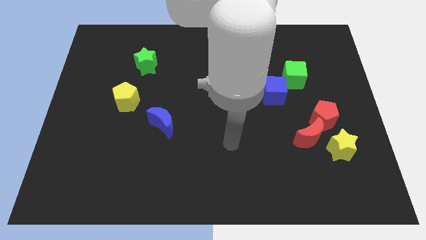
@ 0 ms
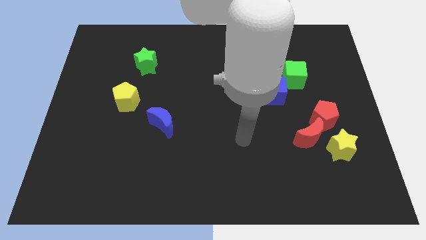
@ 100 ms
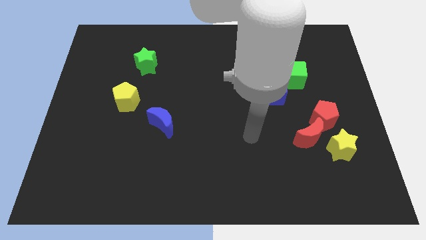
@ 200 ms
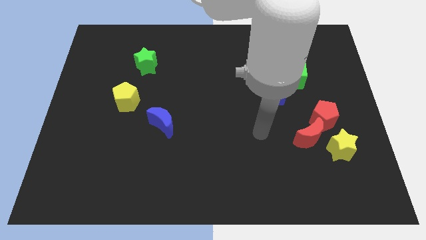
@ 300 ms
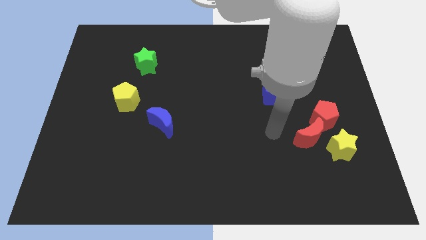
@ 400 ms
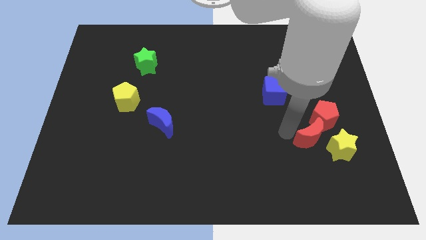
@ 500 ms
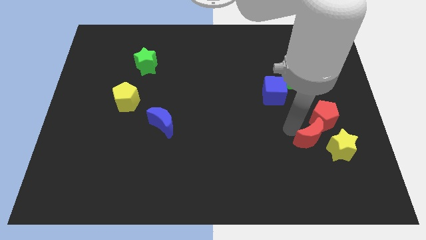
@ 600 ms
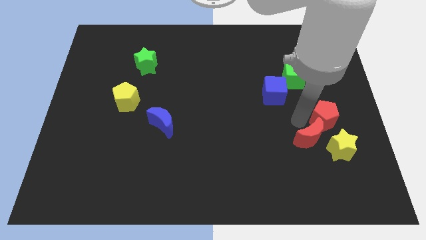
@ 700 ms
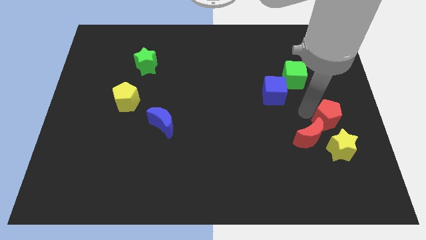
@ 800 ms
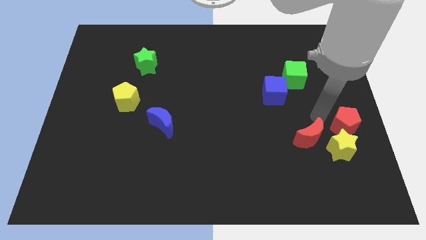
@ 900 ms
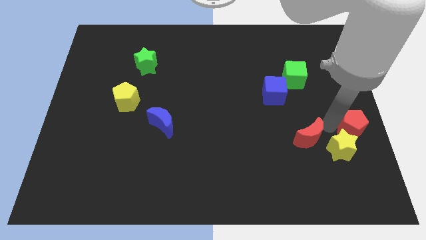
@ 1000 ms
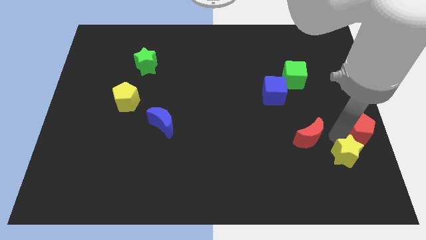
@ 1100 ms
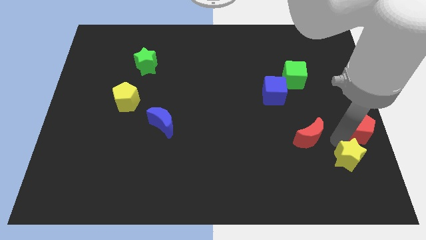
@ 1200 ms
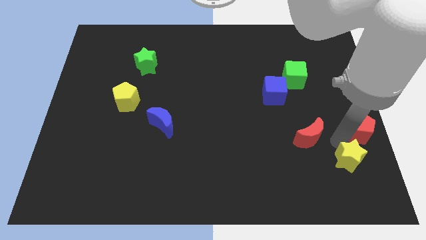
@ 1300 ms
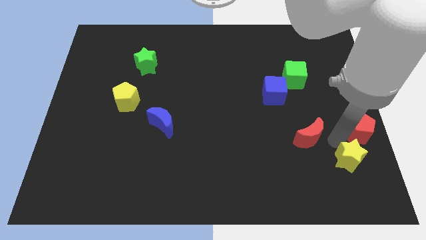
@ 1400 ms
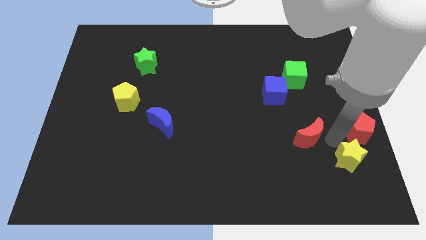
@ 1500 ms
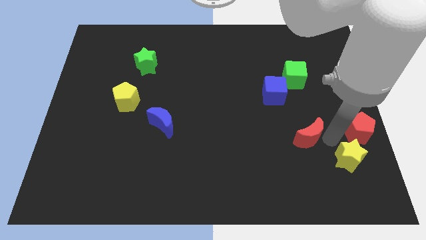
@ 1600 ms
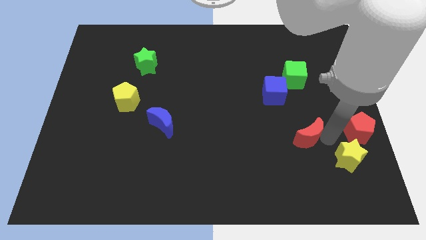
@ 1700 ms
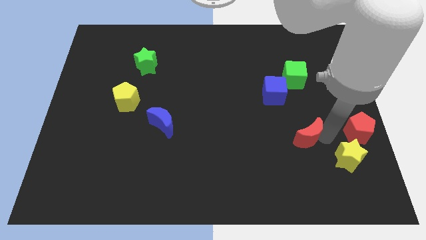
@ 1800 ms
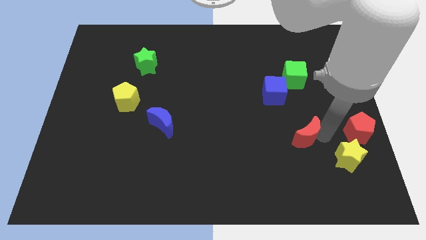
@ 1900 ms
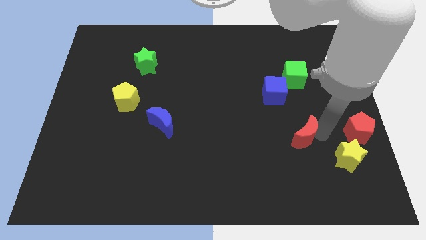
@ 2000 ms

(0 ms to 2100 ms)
separate the red moon from the red pentagon and yellow star

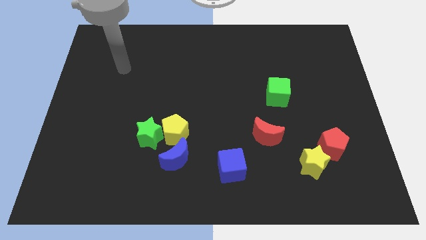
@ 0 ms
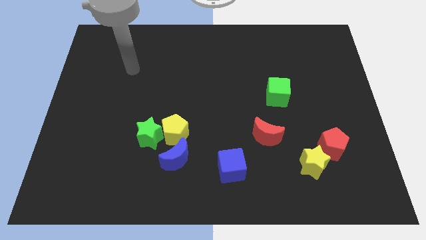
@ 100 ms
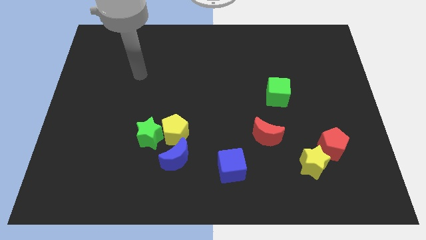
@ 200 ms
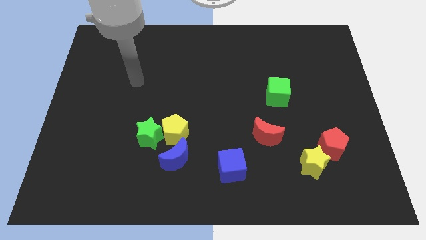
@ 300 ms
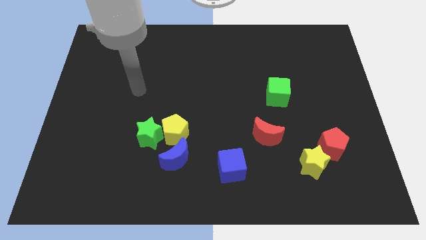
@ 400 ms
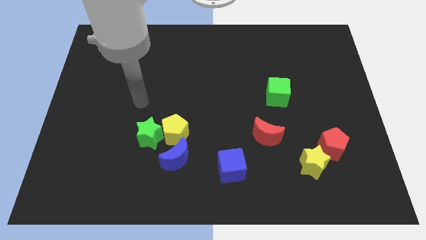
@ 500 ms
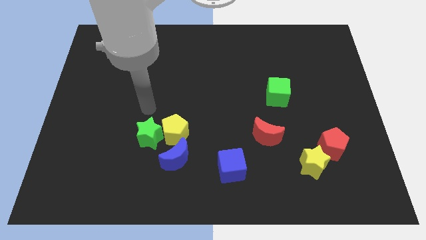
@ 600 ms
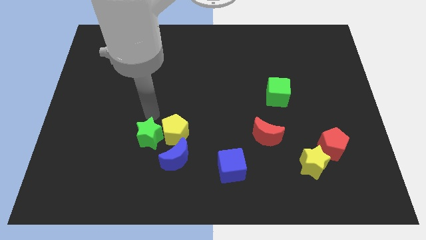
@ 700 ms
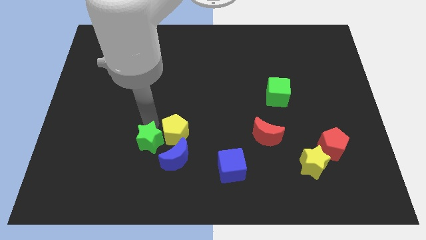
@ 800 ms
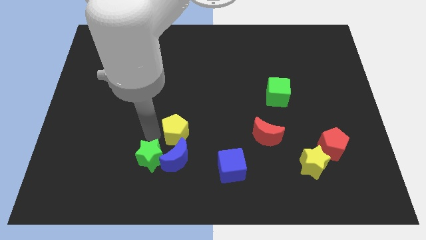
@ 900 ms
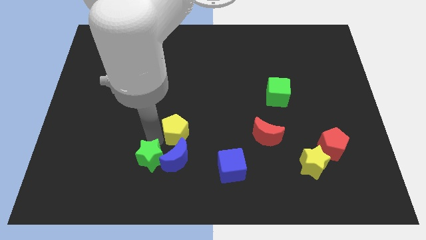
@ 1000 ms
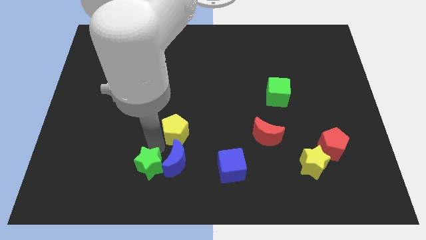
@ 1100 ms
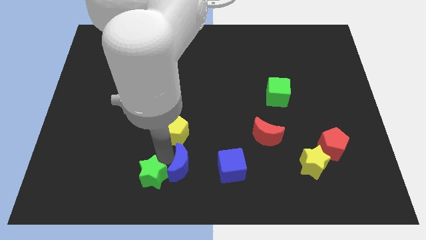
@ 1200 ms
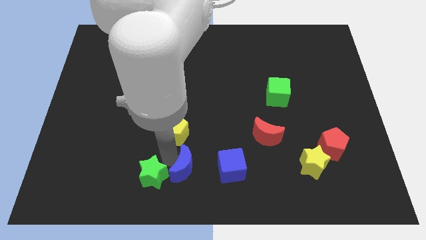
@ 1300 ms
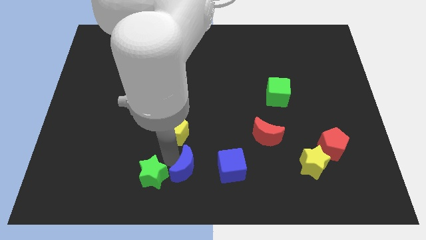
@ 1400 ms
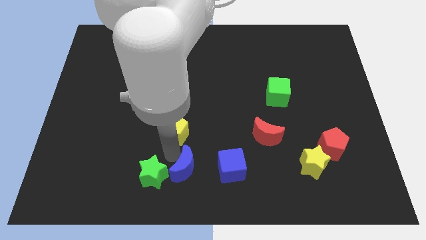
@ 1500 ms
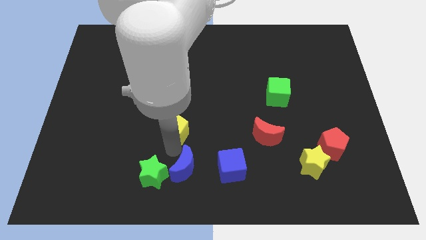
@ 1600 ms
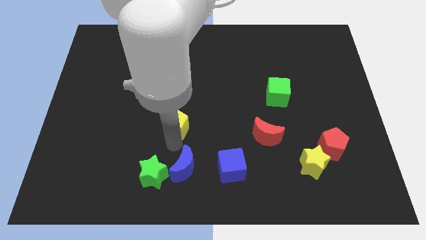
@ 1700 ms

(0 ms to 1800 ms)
separate the yellow pentagon from the green star and blue moon

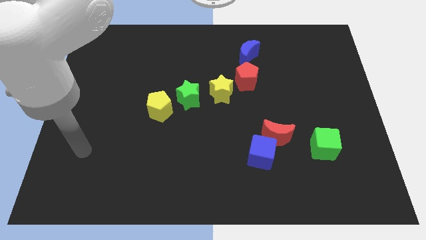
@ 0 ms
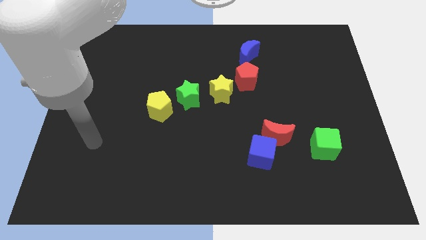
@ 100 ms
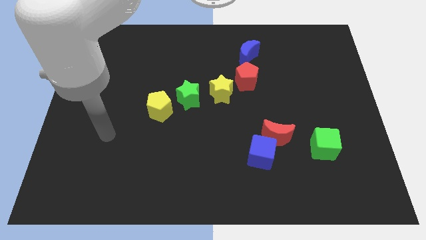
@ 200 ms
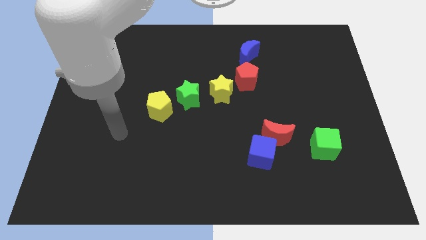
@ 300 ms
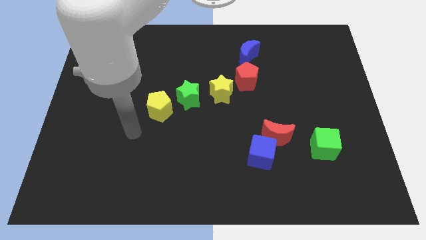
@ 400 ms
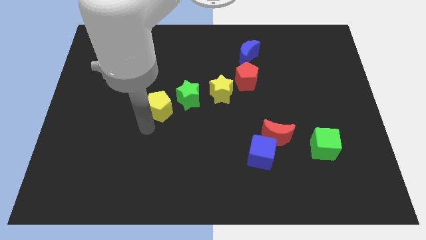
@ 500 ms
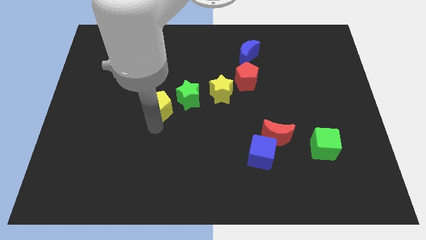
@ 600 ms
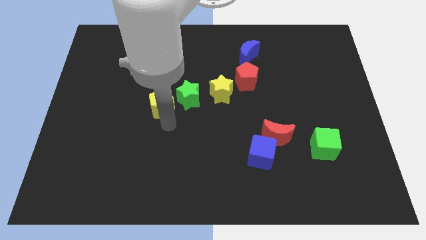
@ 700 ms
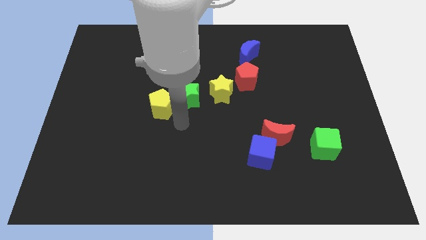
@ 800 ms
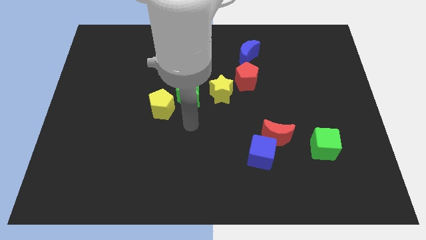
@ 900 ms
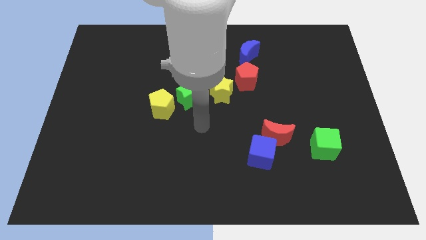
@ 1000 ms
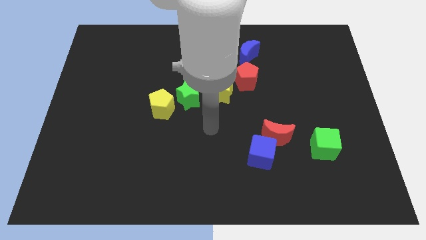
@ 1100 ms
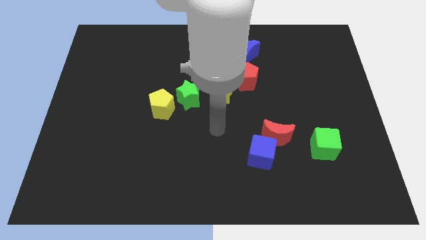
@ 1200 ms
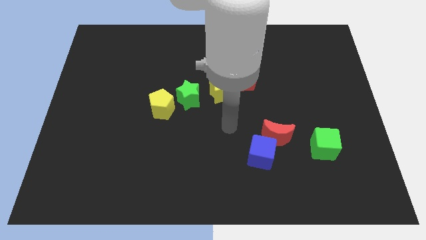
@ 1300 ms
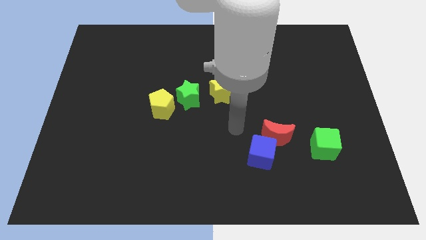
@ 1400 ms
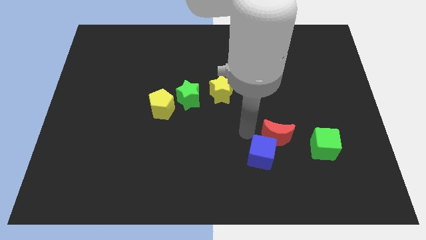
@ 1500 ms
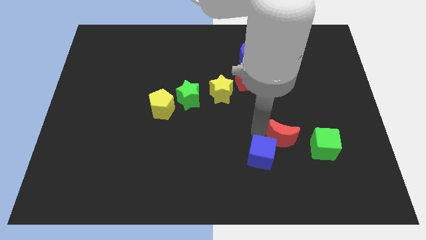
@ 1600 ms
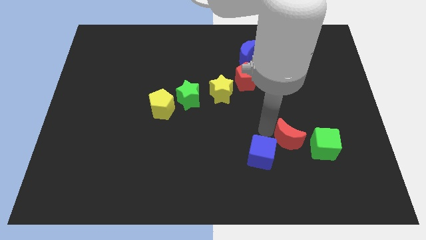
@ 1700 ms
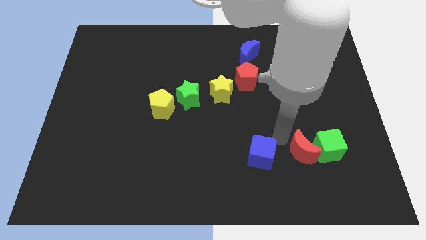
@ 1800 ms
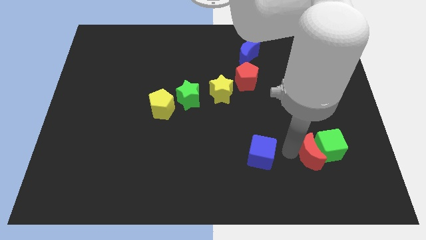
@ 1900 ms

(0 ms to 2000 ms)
separate the blue cube from the red moon

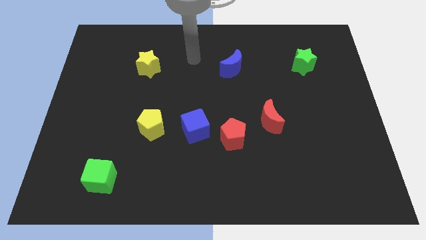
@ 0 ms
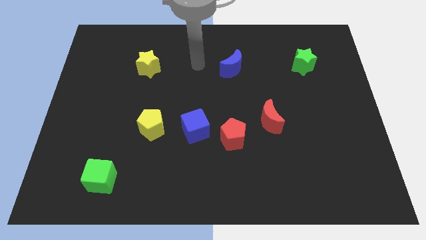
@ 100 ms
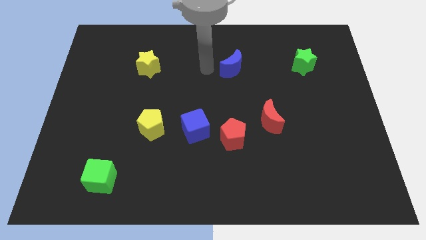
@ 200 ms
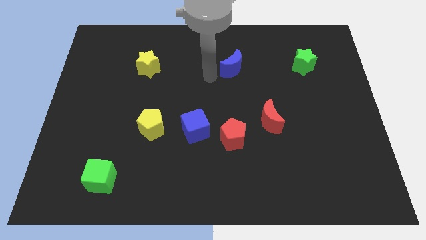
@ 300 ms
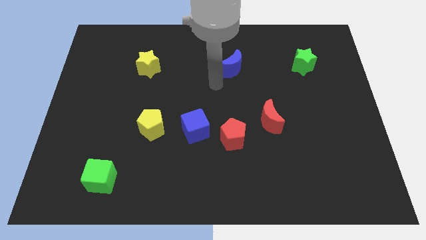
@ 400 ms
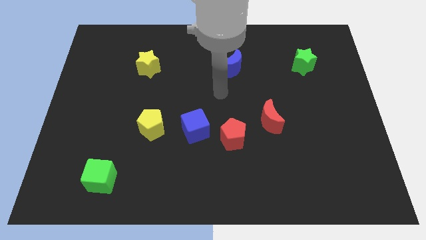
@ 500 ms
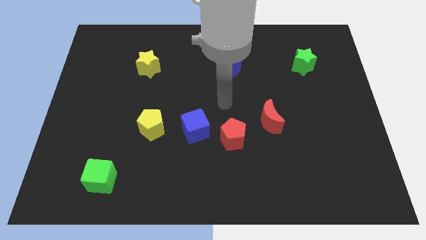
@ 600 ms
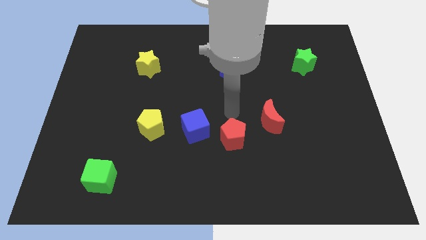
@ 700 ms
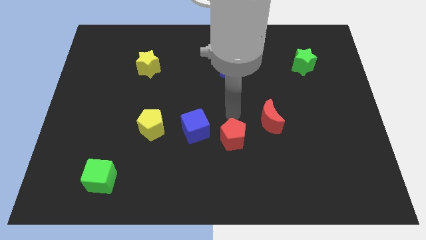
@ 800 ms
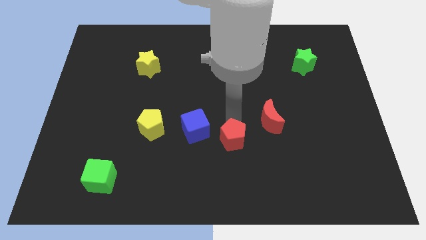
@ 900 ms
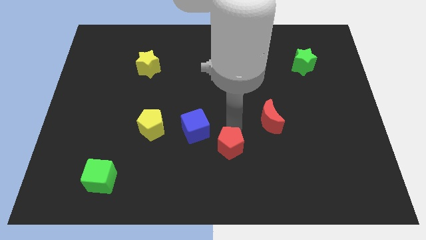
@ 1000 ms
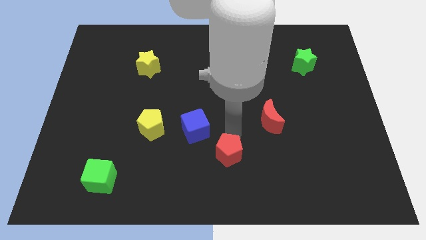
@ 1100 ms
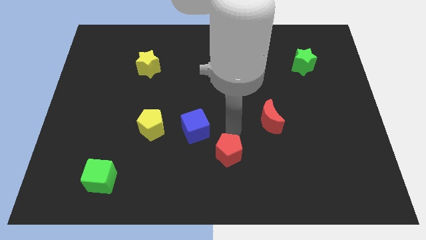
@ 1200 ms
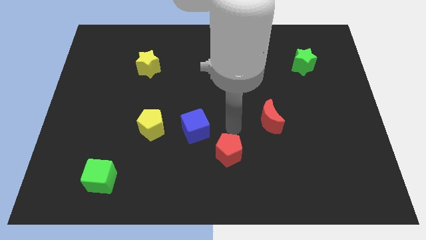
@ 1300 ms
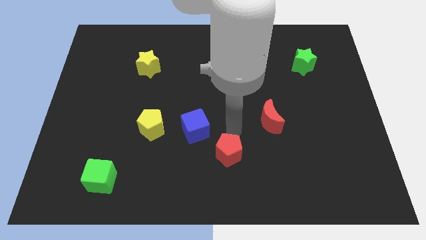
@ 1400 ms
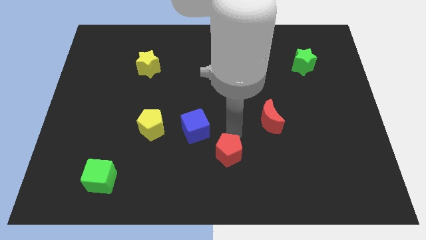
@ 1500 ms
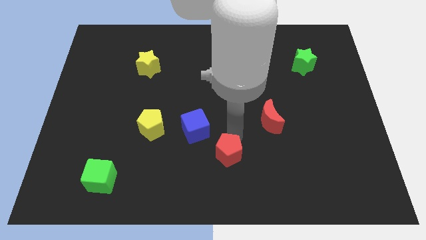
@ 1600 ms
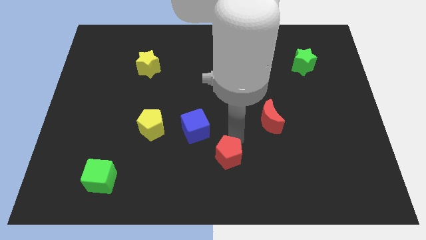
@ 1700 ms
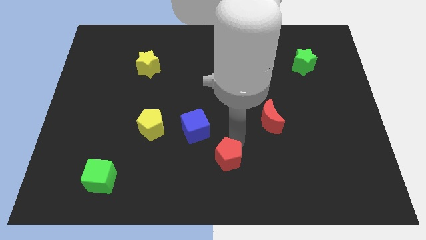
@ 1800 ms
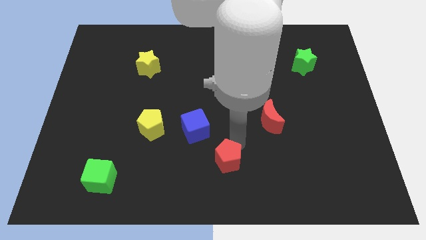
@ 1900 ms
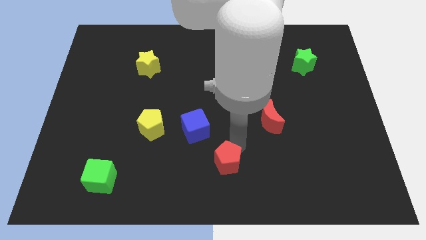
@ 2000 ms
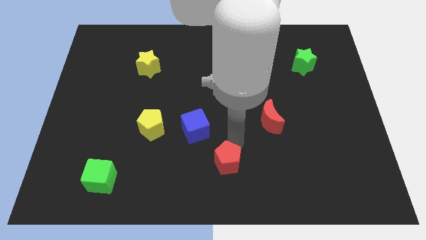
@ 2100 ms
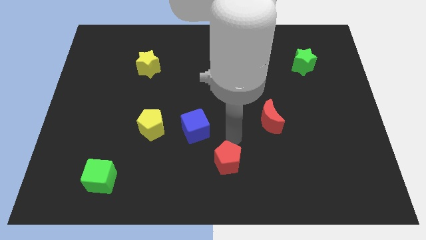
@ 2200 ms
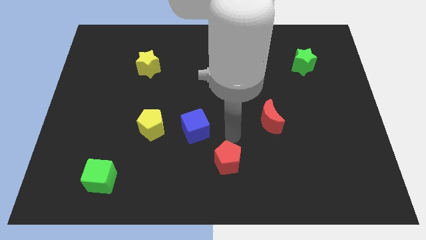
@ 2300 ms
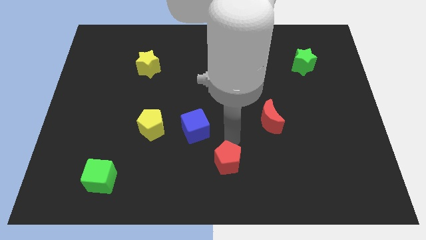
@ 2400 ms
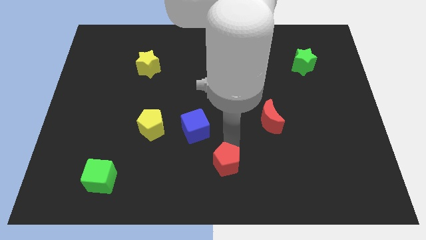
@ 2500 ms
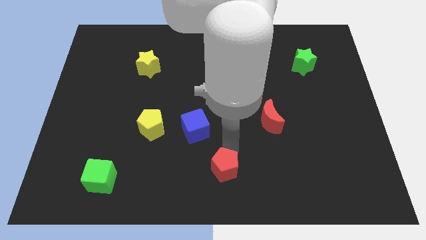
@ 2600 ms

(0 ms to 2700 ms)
pull the red pentagon apart from the blue cube and red moon

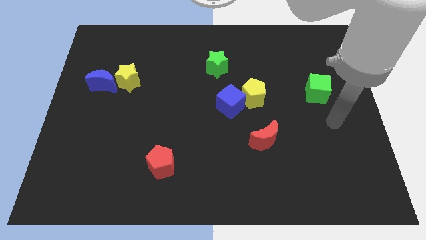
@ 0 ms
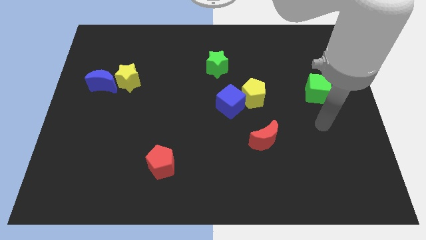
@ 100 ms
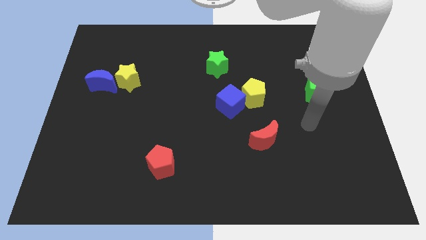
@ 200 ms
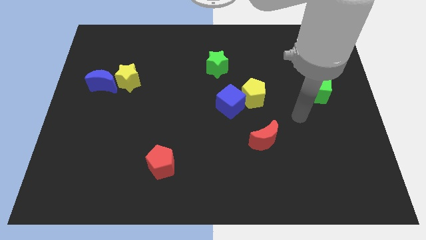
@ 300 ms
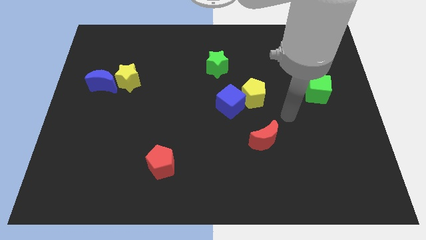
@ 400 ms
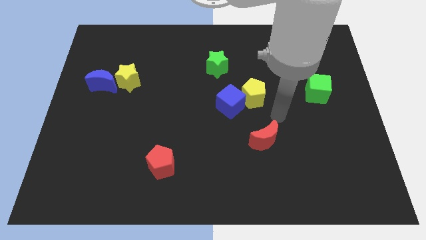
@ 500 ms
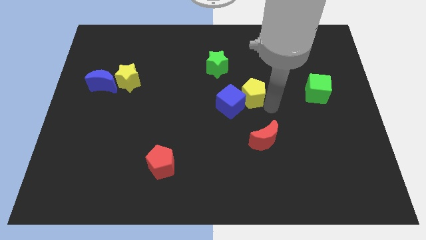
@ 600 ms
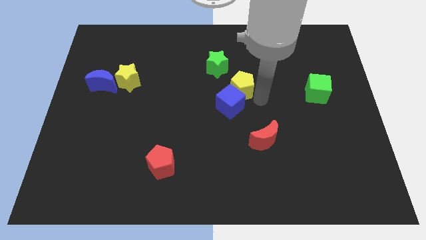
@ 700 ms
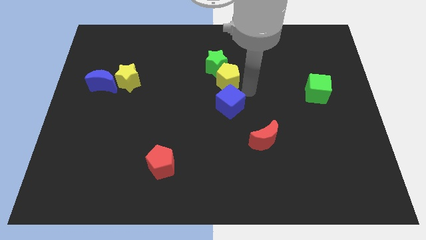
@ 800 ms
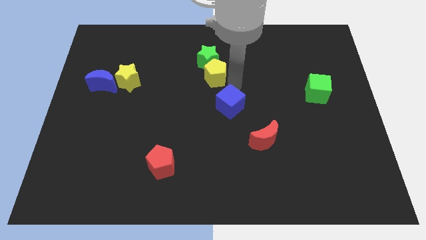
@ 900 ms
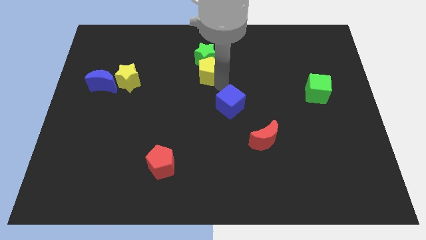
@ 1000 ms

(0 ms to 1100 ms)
pull the blue cube apart from the yellow pentagon
